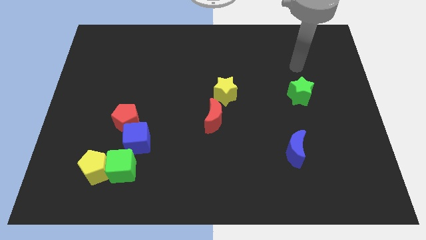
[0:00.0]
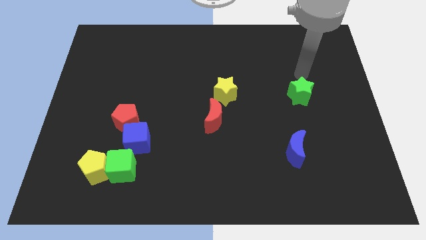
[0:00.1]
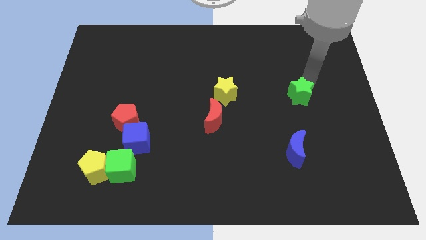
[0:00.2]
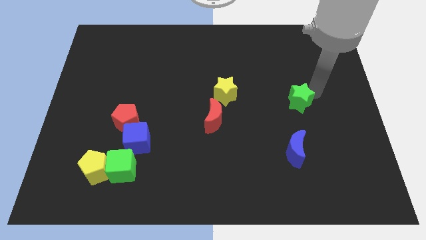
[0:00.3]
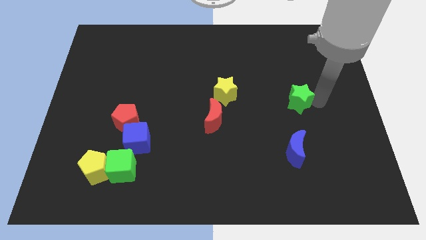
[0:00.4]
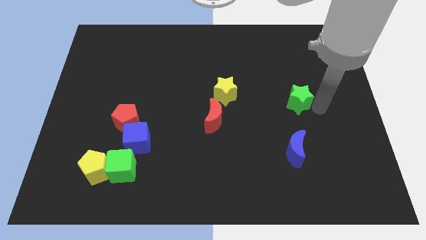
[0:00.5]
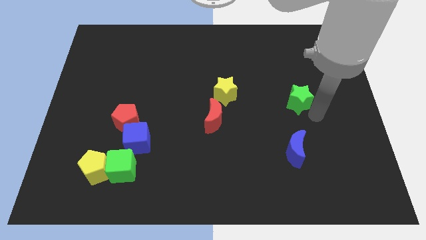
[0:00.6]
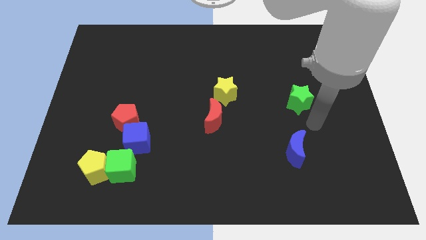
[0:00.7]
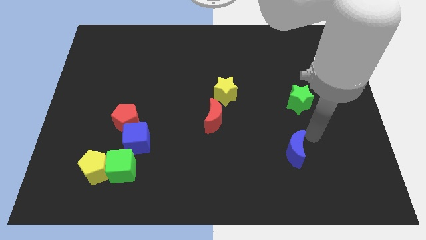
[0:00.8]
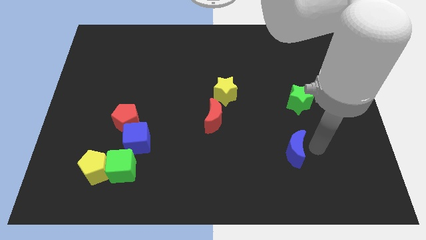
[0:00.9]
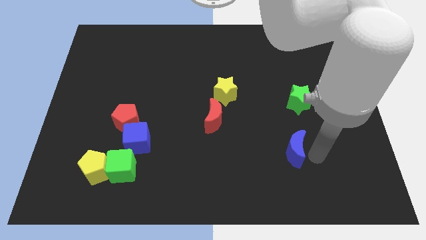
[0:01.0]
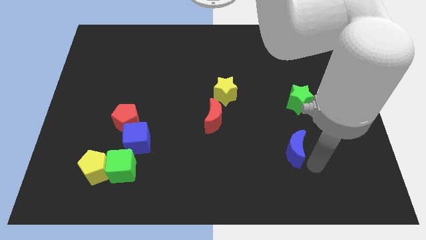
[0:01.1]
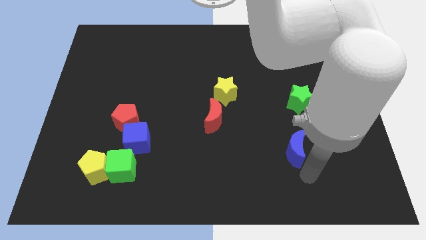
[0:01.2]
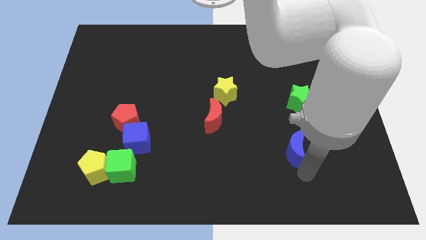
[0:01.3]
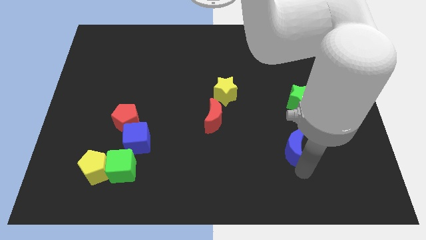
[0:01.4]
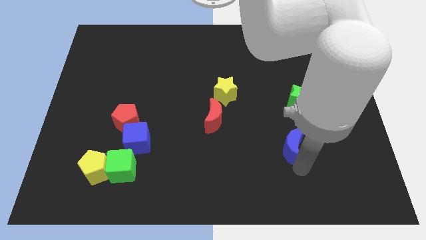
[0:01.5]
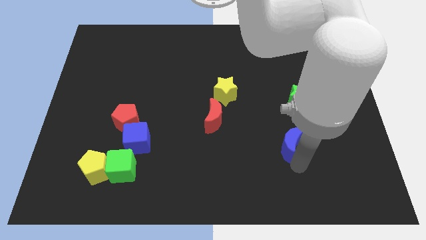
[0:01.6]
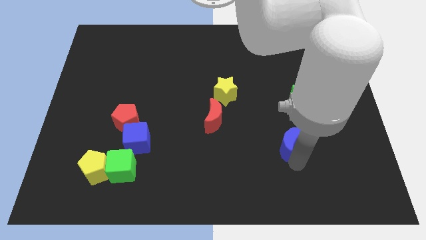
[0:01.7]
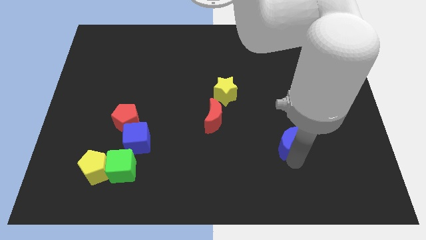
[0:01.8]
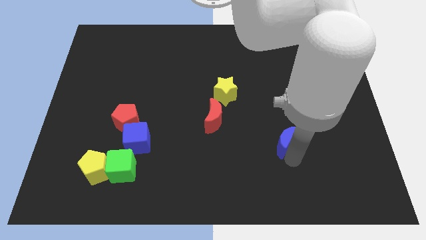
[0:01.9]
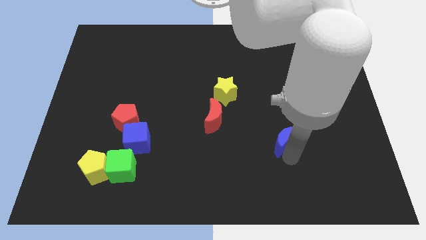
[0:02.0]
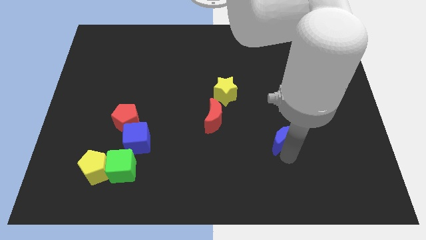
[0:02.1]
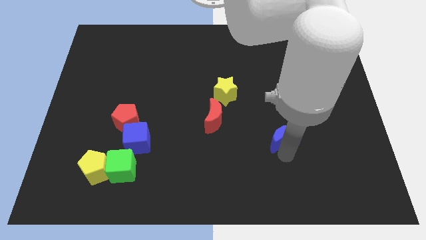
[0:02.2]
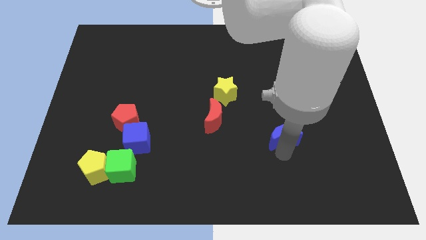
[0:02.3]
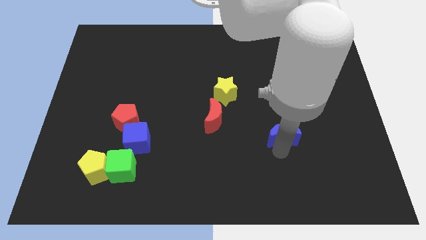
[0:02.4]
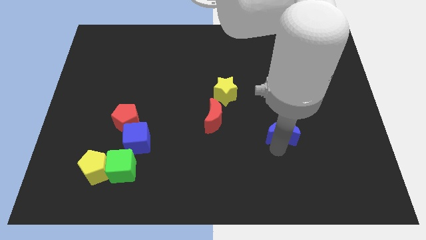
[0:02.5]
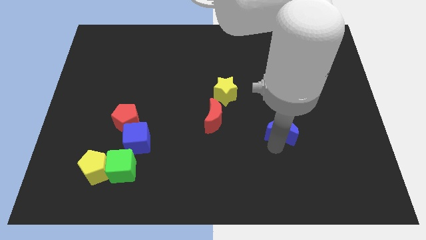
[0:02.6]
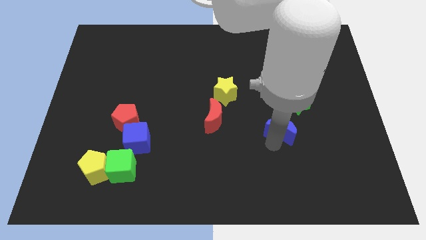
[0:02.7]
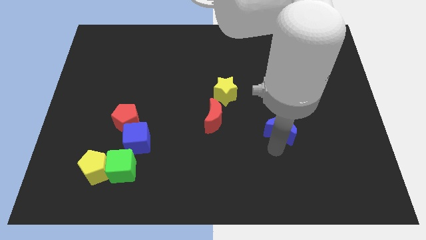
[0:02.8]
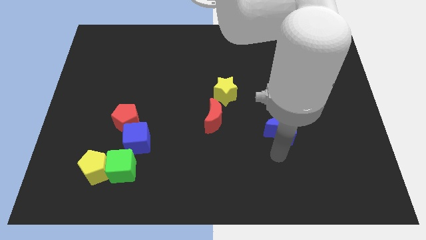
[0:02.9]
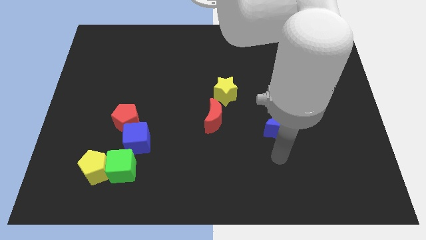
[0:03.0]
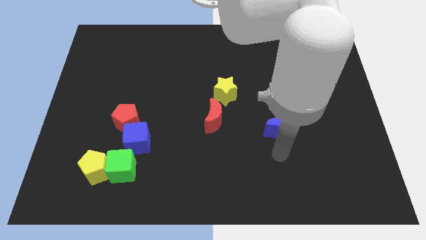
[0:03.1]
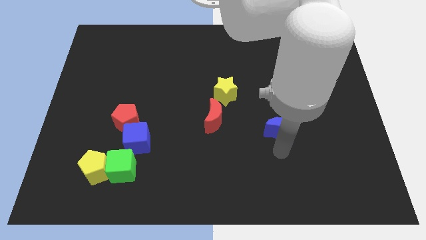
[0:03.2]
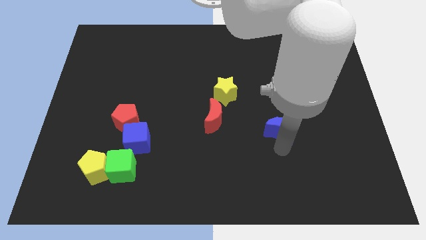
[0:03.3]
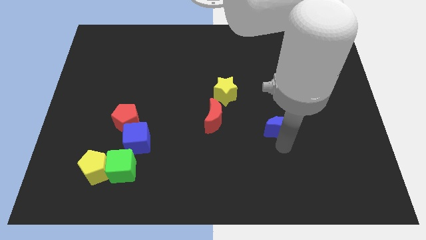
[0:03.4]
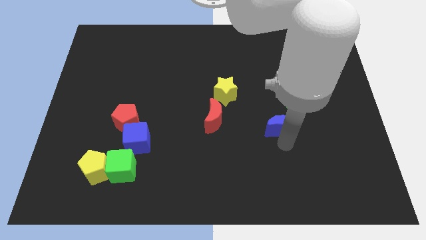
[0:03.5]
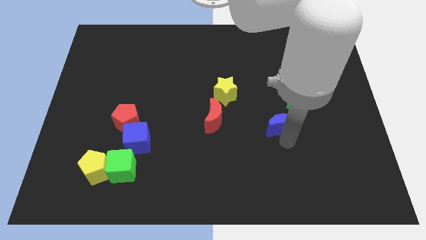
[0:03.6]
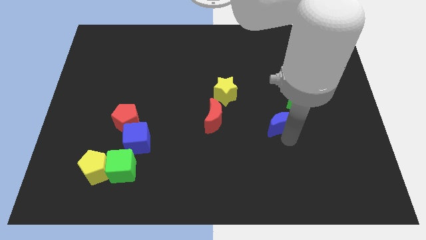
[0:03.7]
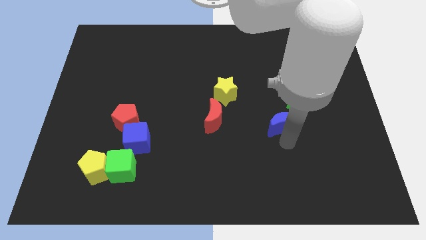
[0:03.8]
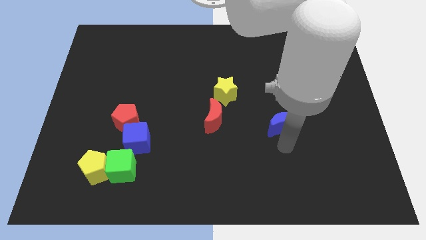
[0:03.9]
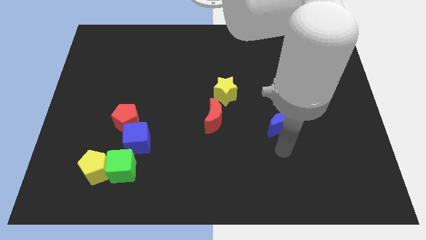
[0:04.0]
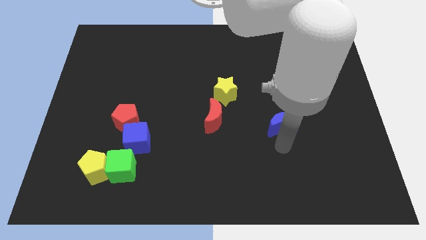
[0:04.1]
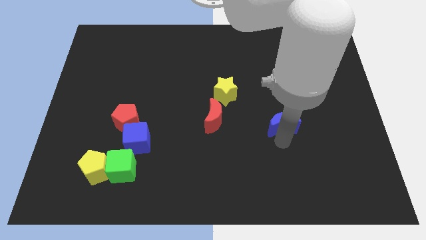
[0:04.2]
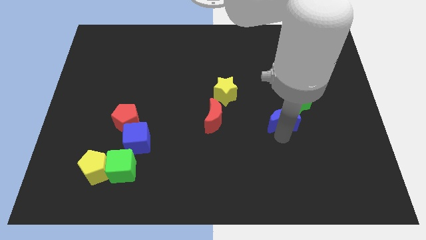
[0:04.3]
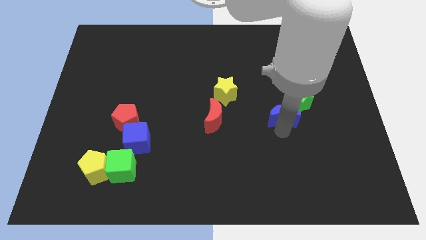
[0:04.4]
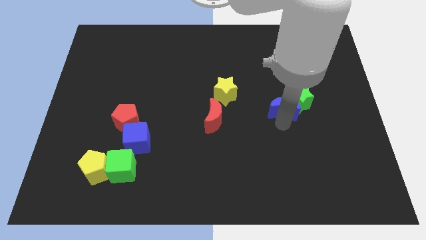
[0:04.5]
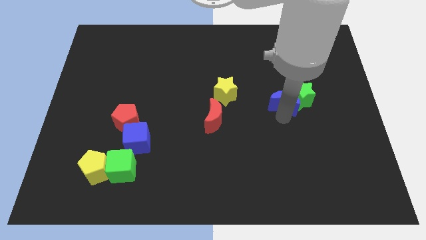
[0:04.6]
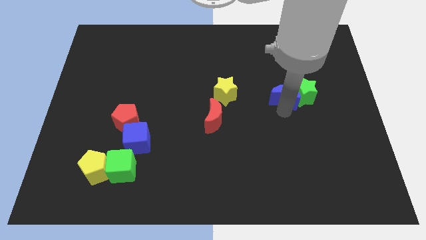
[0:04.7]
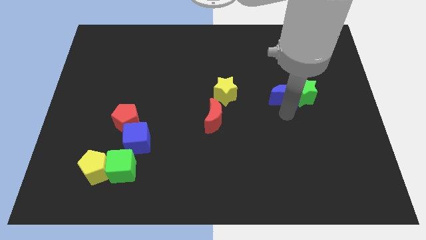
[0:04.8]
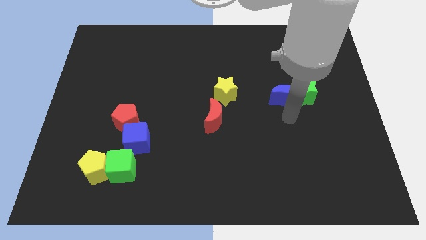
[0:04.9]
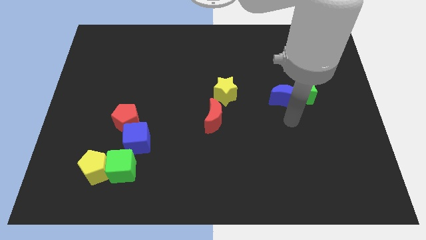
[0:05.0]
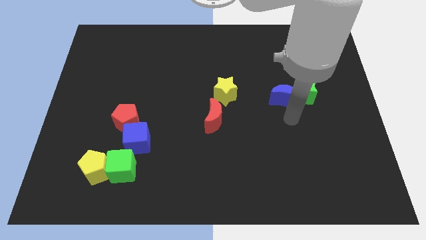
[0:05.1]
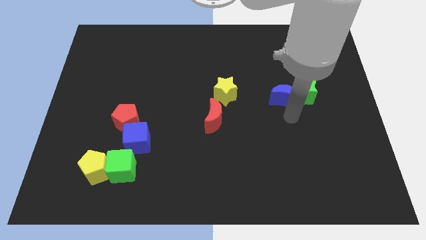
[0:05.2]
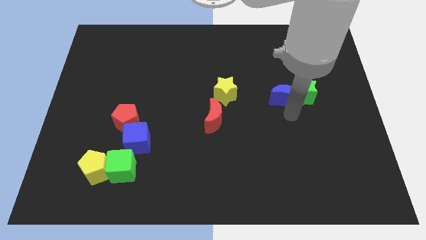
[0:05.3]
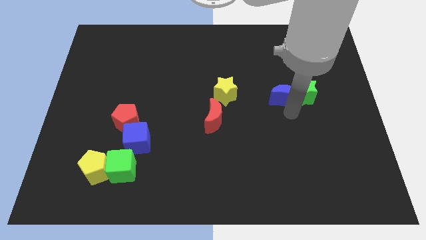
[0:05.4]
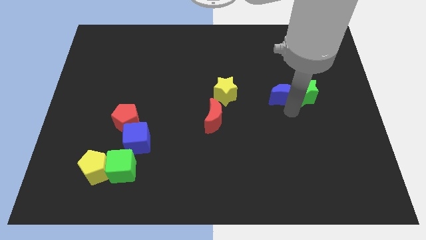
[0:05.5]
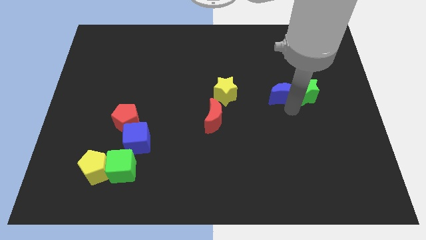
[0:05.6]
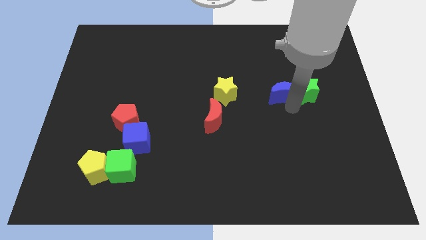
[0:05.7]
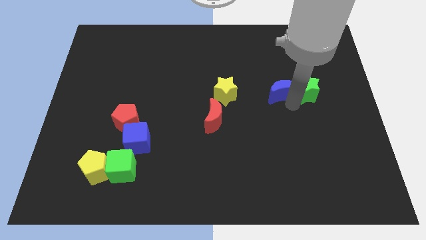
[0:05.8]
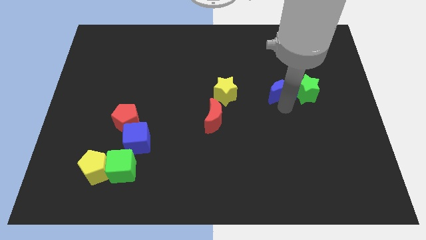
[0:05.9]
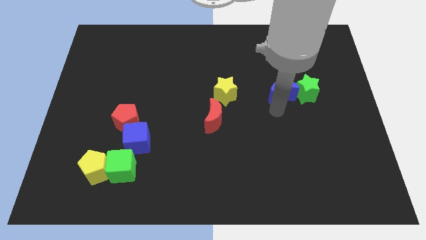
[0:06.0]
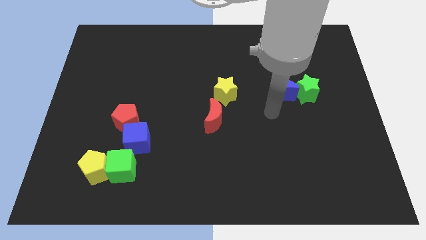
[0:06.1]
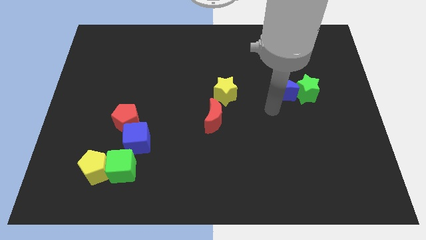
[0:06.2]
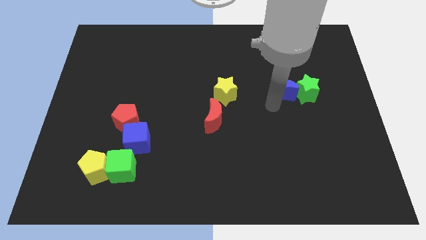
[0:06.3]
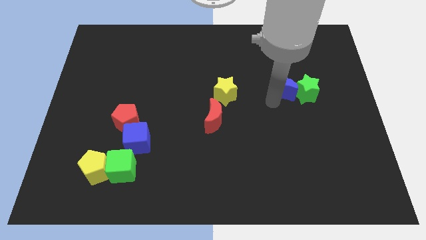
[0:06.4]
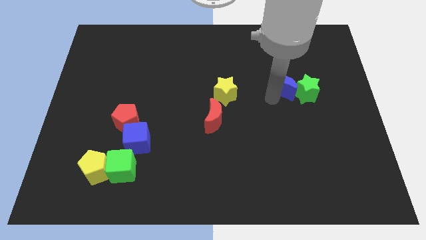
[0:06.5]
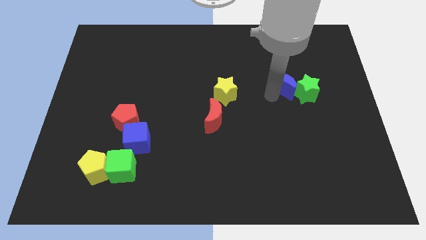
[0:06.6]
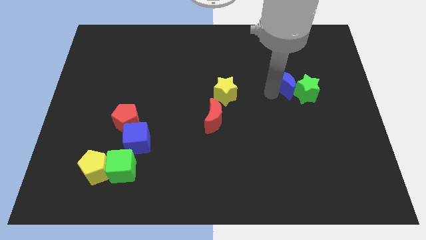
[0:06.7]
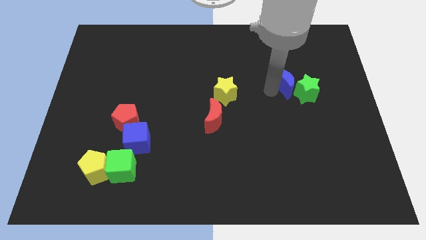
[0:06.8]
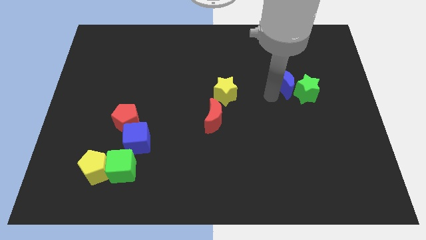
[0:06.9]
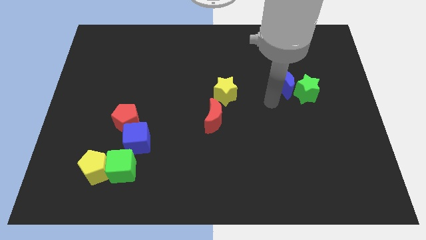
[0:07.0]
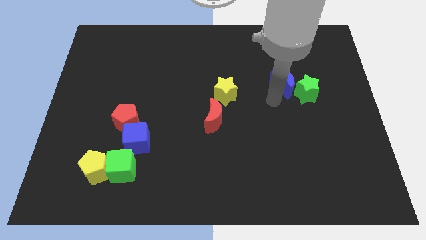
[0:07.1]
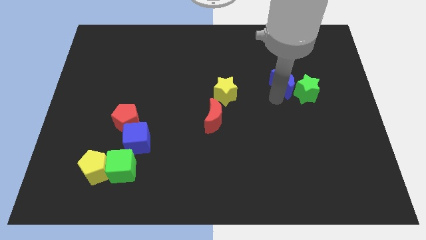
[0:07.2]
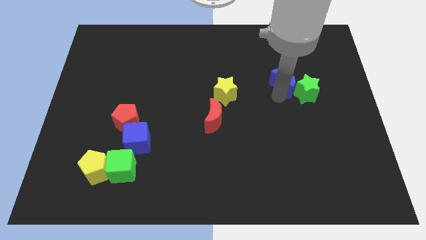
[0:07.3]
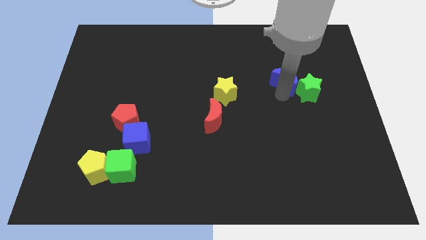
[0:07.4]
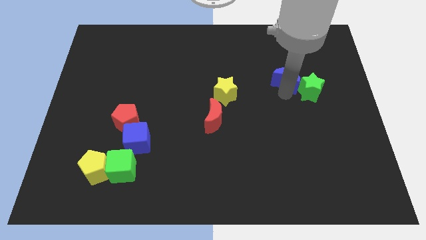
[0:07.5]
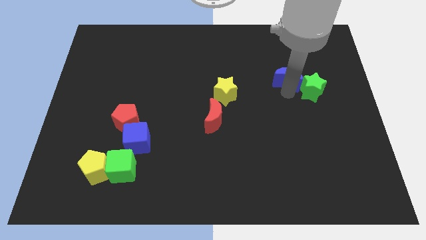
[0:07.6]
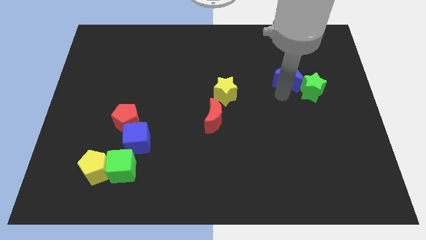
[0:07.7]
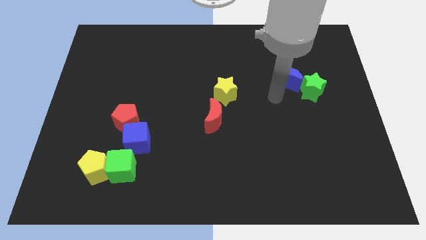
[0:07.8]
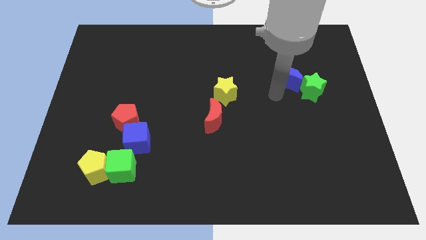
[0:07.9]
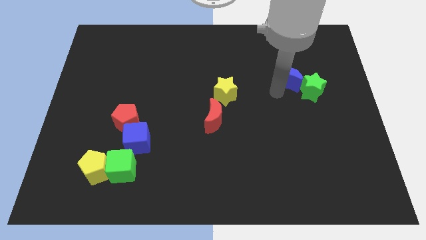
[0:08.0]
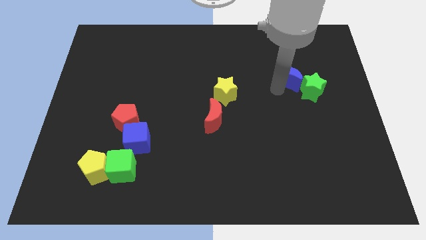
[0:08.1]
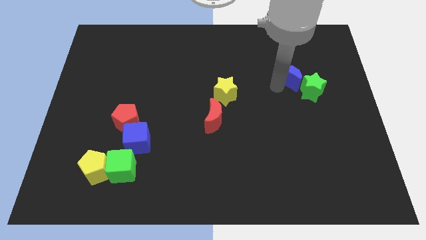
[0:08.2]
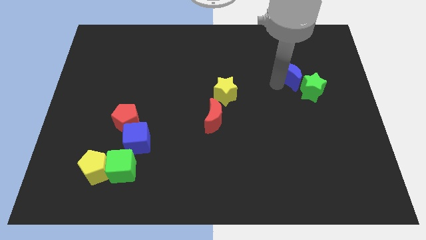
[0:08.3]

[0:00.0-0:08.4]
push the blue moon to the top side of the green star
